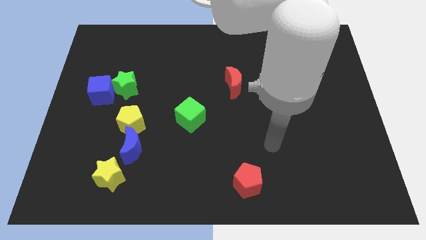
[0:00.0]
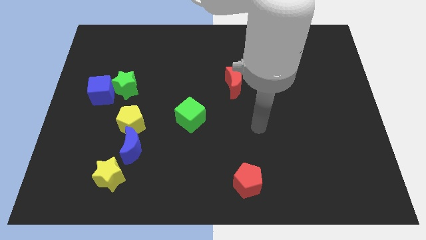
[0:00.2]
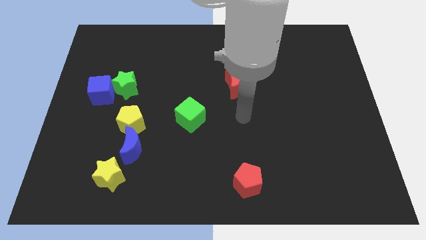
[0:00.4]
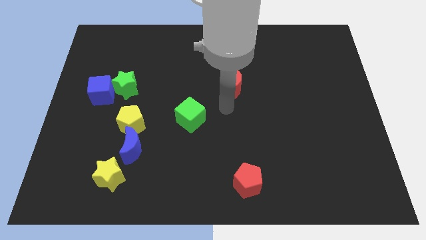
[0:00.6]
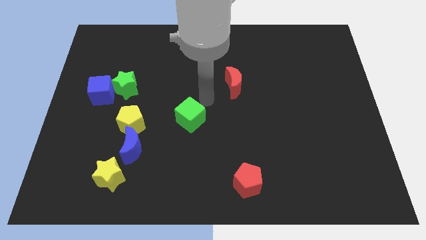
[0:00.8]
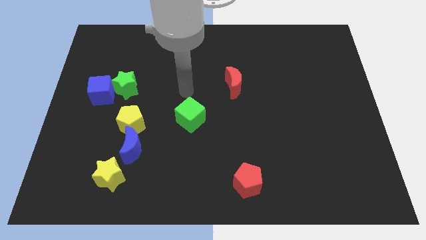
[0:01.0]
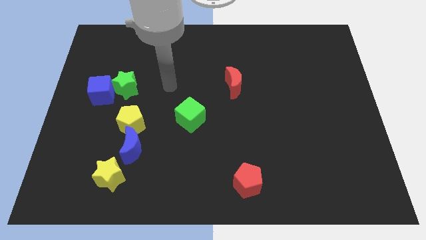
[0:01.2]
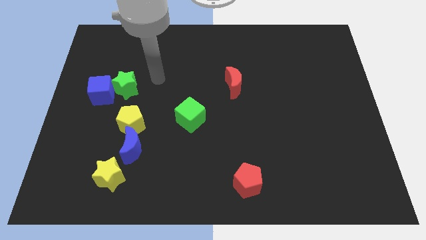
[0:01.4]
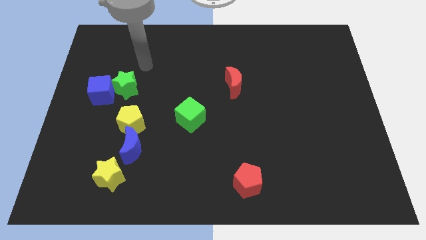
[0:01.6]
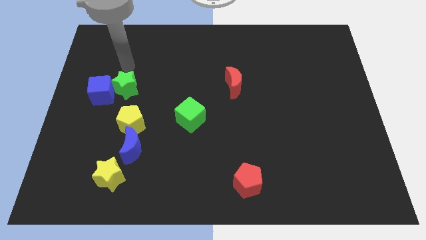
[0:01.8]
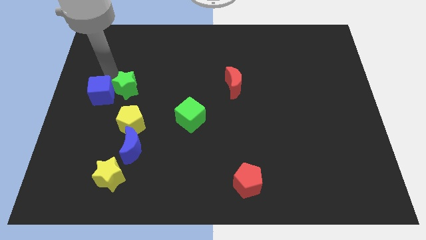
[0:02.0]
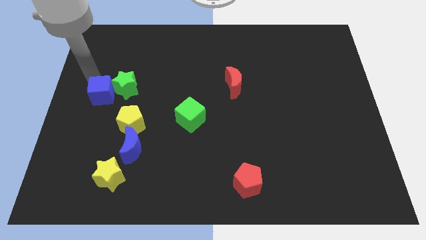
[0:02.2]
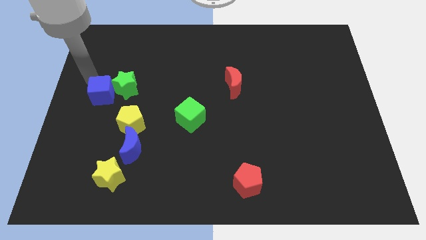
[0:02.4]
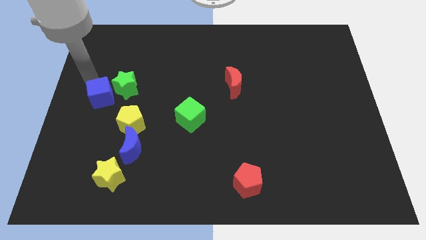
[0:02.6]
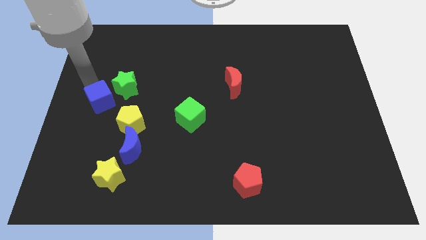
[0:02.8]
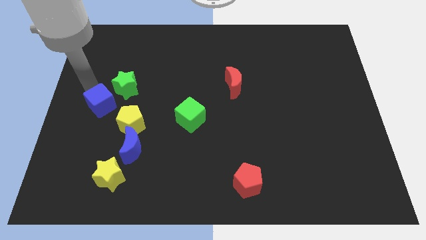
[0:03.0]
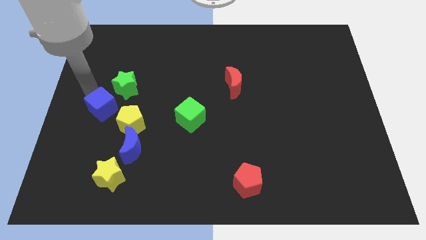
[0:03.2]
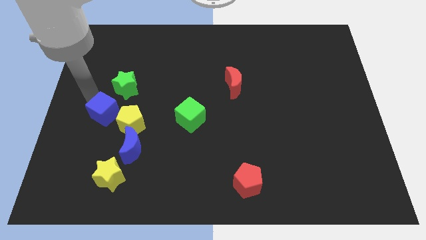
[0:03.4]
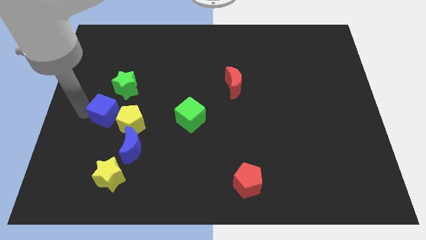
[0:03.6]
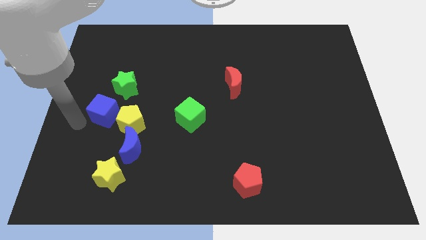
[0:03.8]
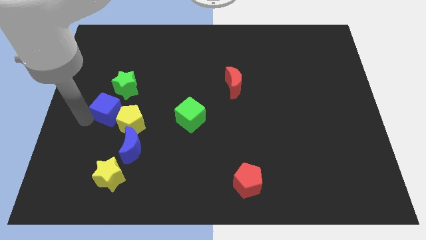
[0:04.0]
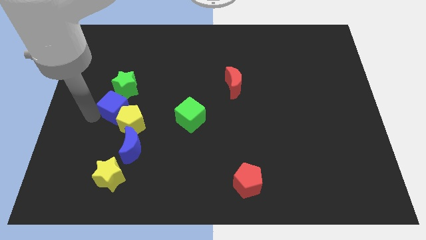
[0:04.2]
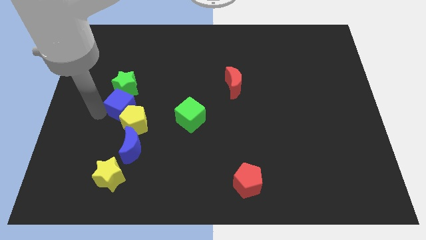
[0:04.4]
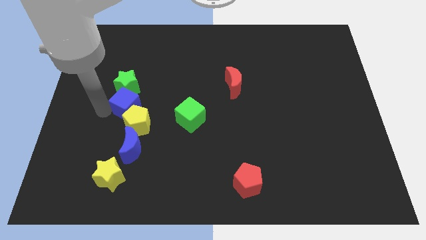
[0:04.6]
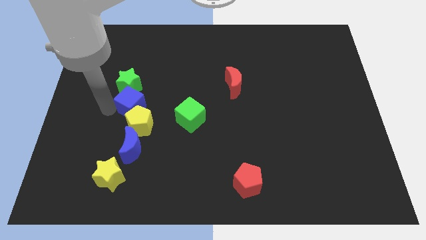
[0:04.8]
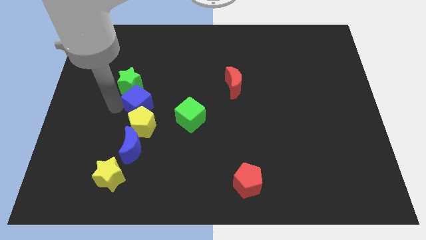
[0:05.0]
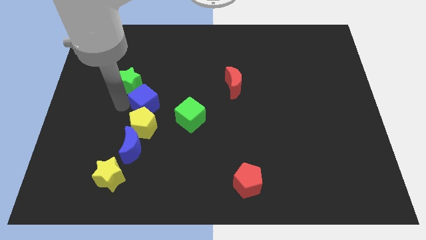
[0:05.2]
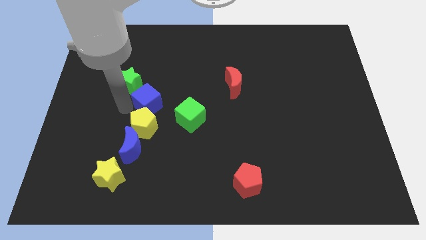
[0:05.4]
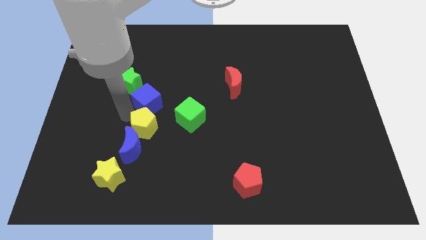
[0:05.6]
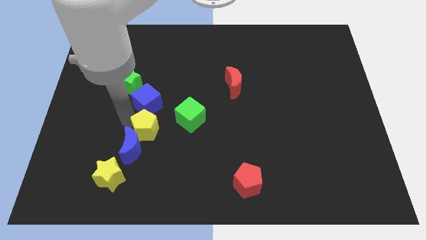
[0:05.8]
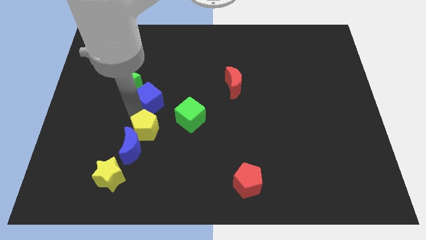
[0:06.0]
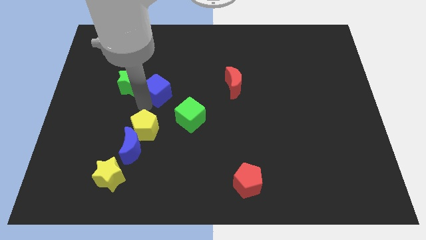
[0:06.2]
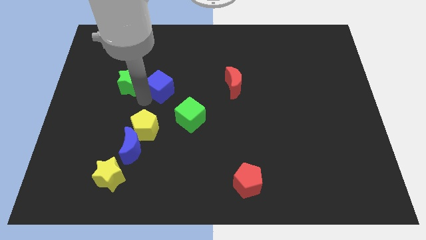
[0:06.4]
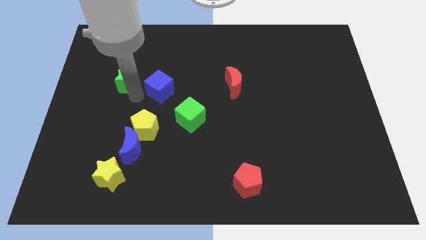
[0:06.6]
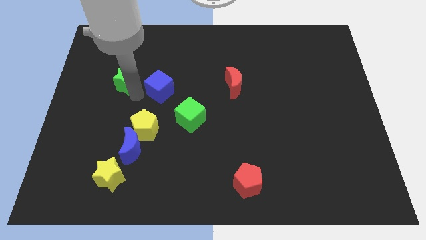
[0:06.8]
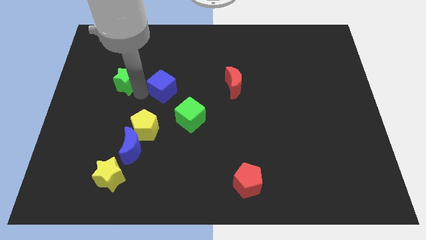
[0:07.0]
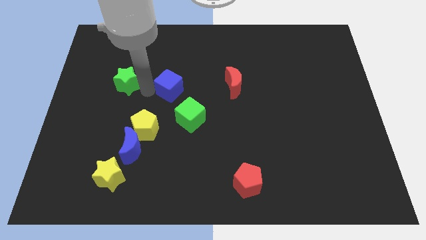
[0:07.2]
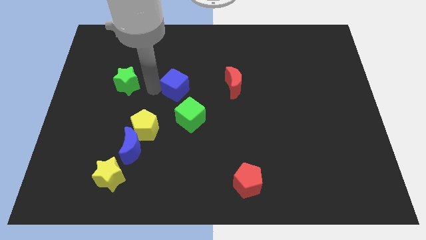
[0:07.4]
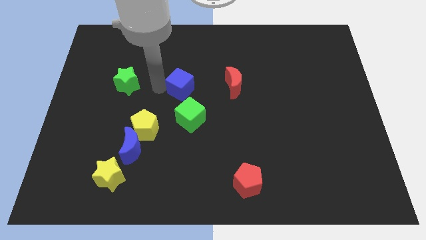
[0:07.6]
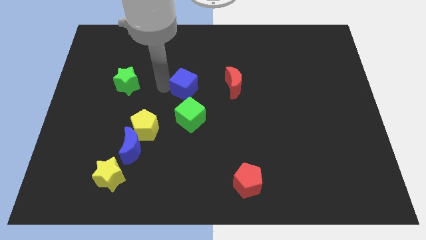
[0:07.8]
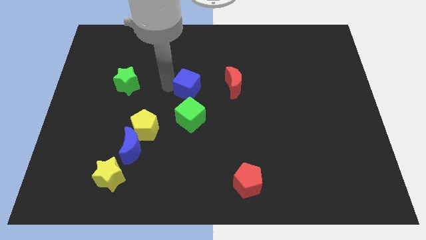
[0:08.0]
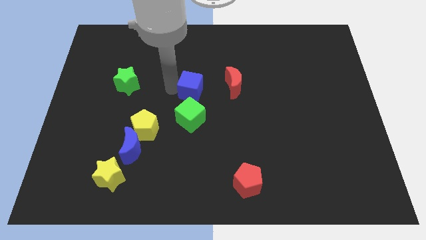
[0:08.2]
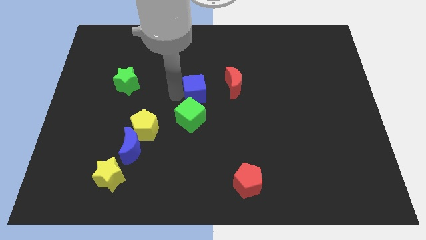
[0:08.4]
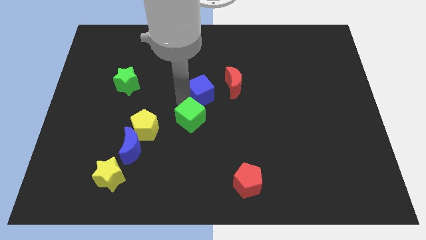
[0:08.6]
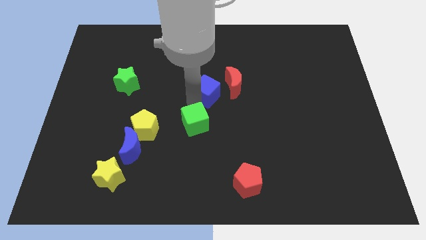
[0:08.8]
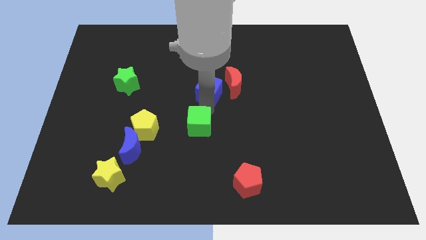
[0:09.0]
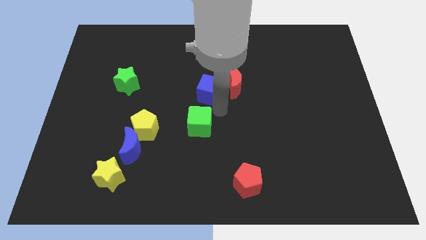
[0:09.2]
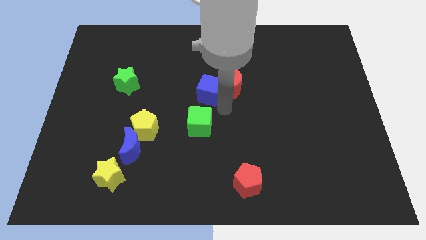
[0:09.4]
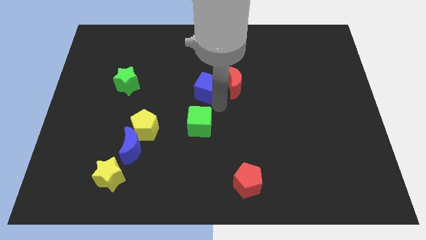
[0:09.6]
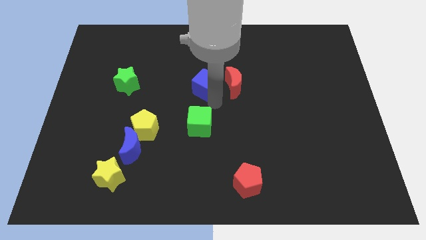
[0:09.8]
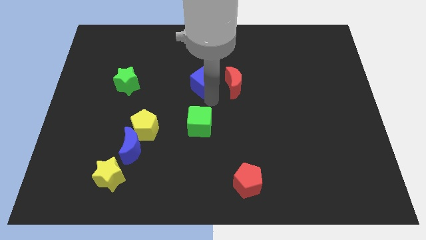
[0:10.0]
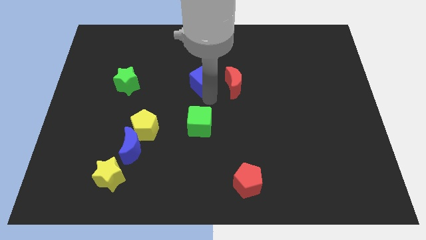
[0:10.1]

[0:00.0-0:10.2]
push the blue cube diagonally up and to the left of the red moon

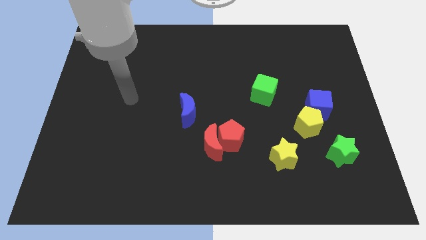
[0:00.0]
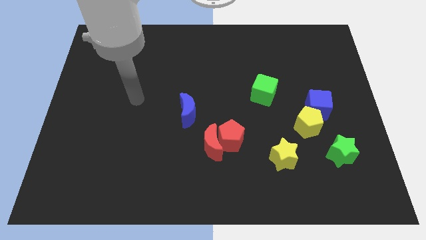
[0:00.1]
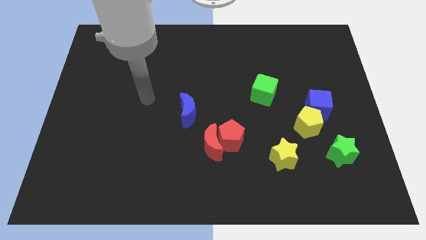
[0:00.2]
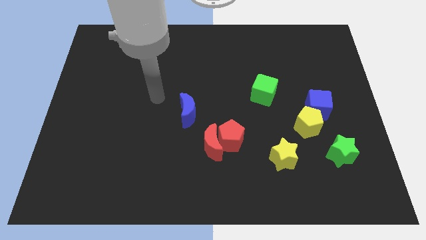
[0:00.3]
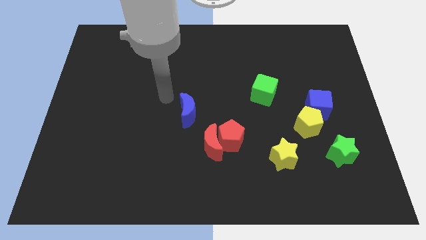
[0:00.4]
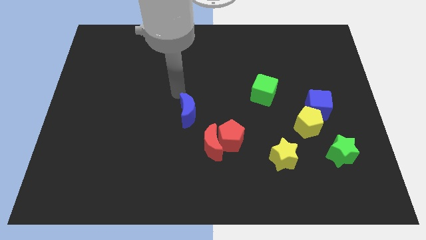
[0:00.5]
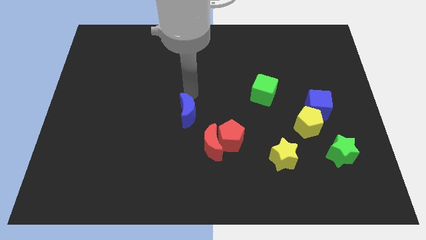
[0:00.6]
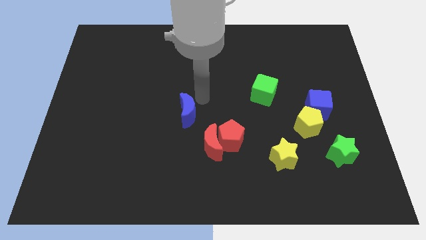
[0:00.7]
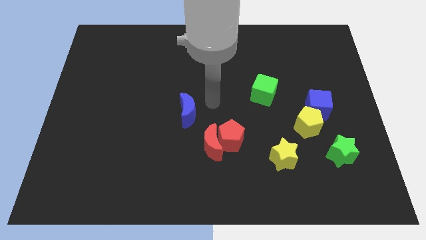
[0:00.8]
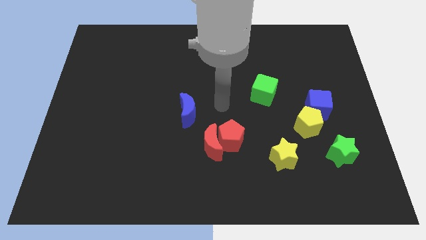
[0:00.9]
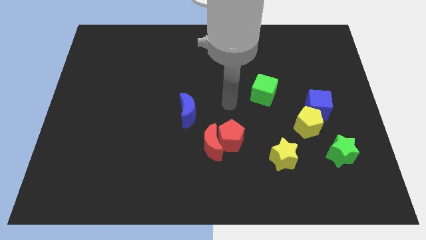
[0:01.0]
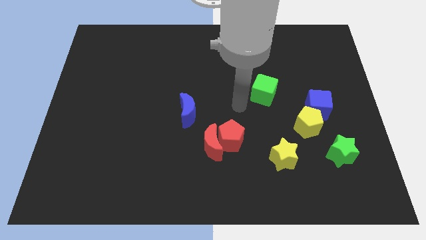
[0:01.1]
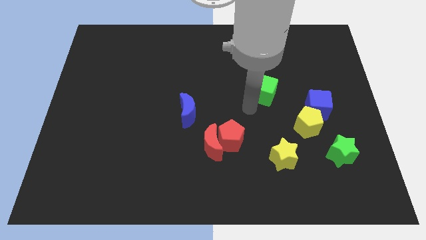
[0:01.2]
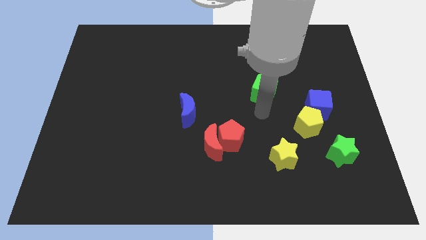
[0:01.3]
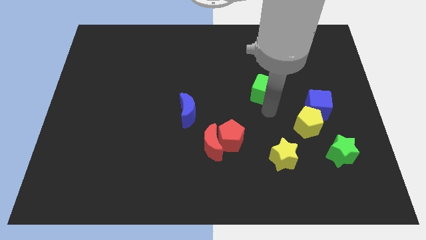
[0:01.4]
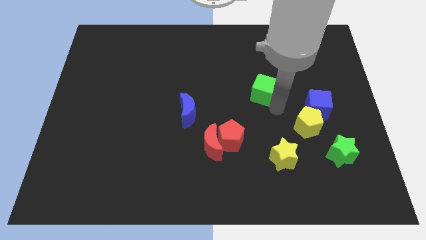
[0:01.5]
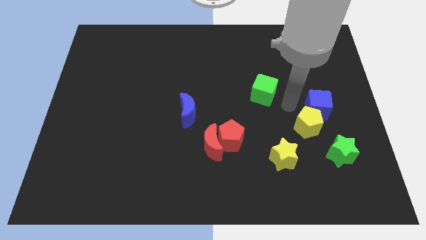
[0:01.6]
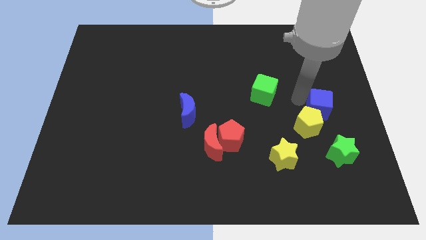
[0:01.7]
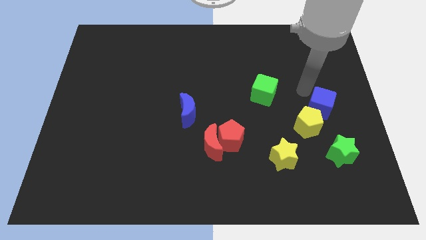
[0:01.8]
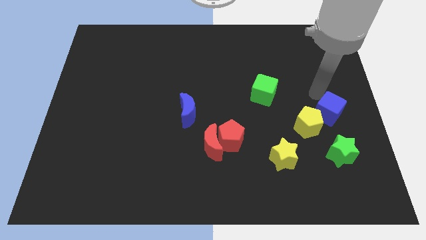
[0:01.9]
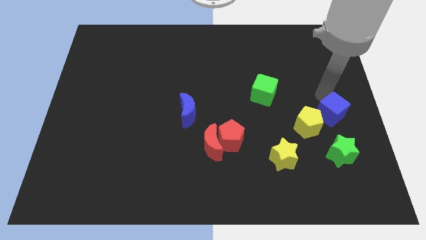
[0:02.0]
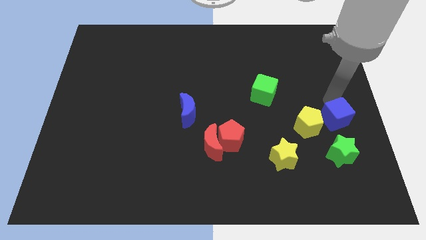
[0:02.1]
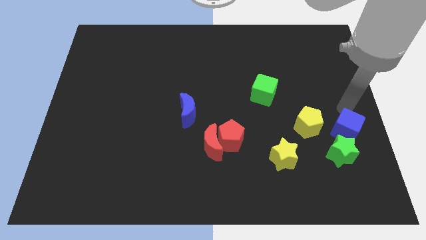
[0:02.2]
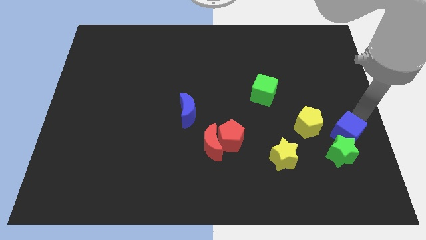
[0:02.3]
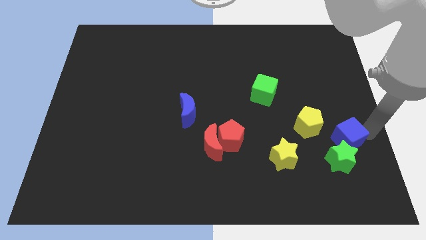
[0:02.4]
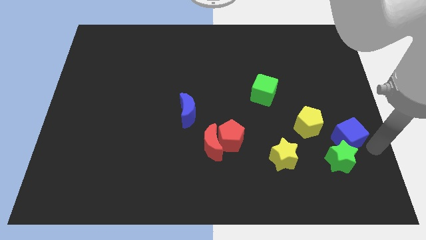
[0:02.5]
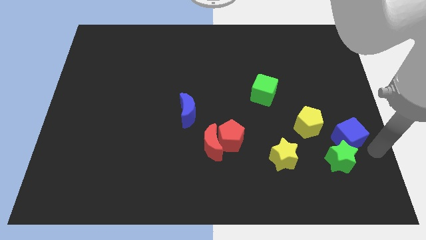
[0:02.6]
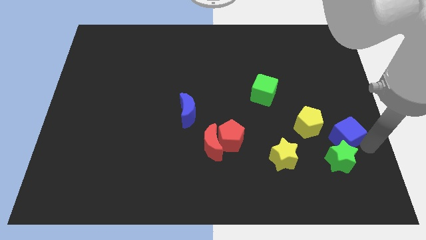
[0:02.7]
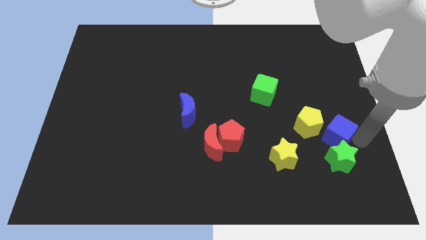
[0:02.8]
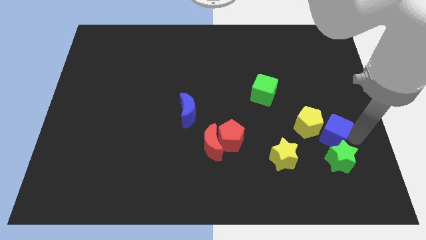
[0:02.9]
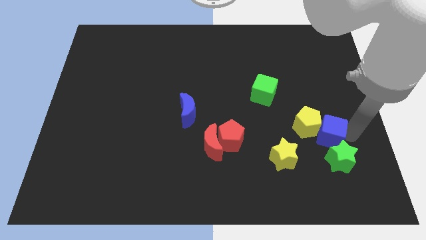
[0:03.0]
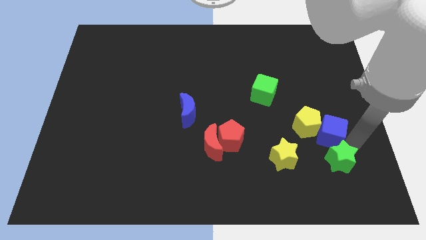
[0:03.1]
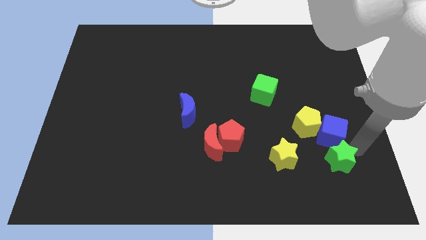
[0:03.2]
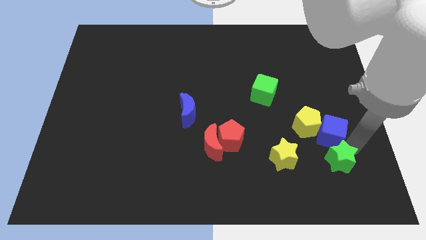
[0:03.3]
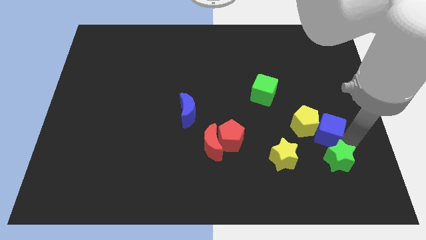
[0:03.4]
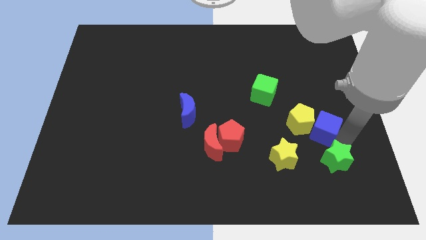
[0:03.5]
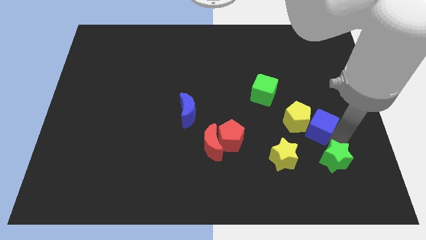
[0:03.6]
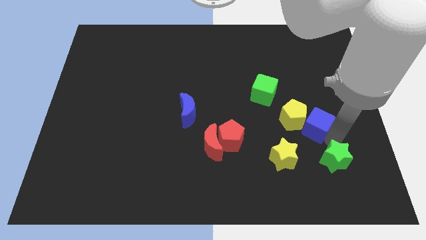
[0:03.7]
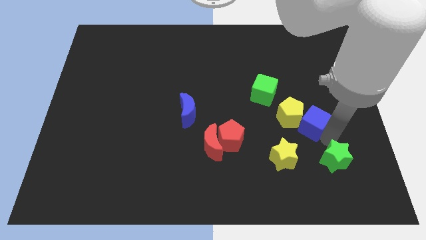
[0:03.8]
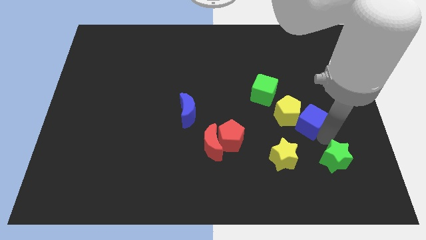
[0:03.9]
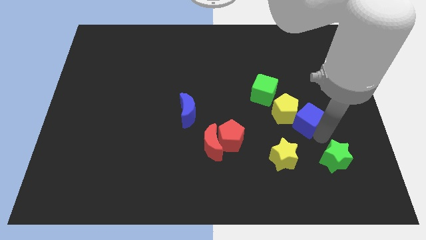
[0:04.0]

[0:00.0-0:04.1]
put the blue cube to the bottom right of the green cube
